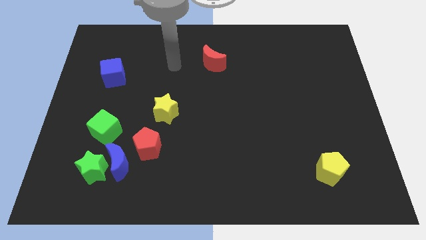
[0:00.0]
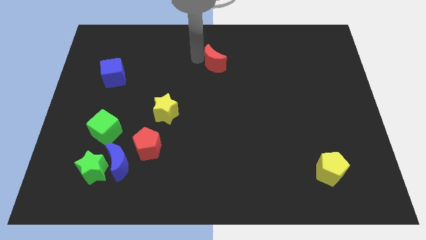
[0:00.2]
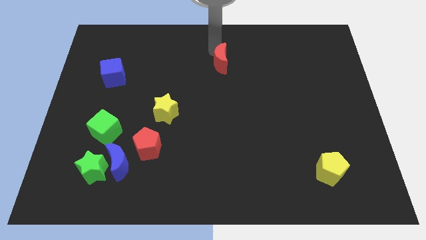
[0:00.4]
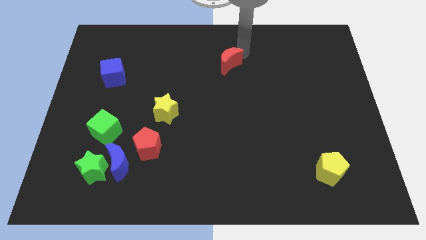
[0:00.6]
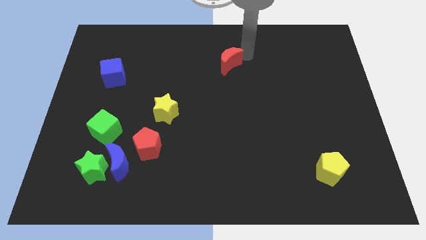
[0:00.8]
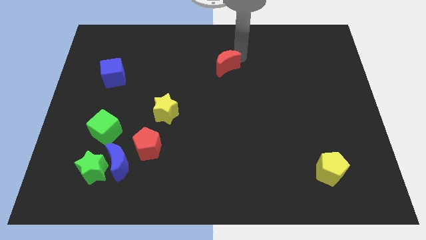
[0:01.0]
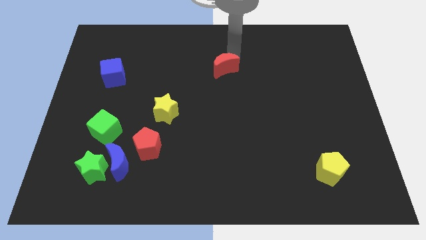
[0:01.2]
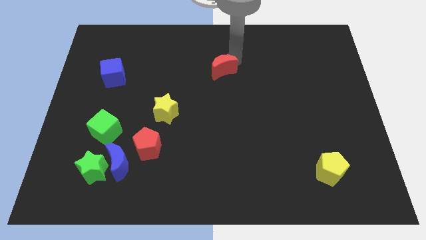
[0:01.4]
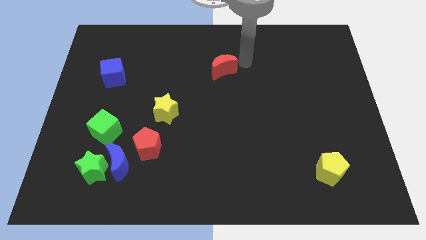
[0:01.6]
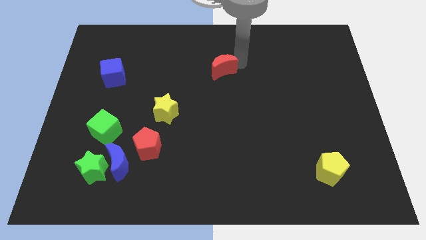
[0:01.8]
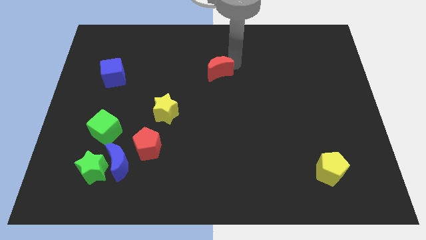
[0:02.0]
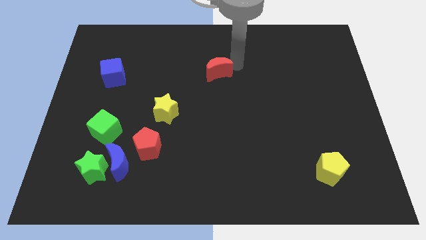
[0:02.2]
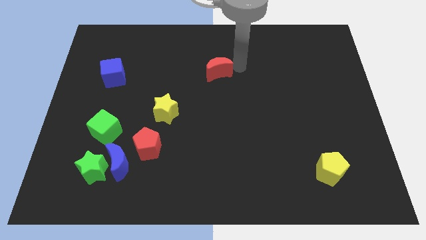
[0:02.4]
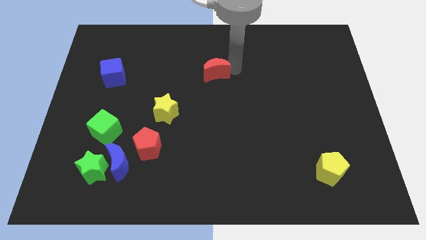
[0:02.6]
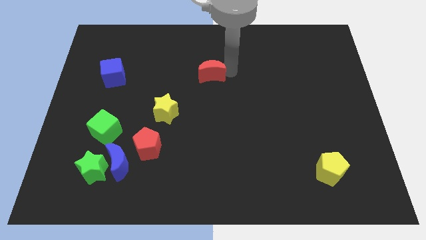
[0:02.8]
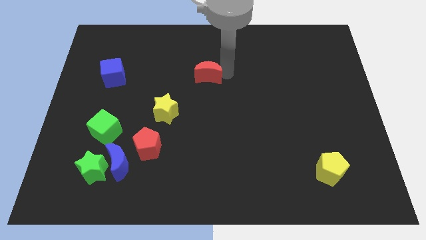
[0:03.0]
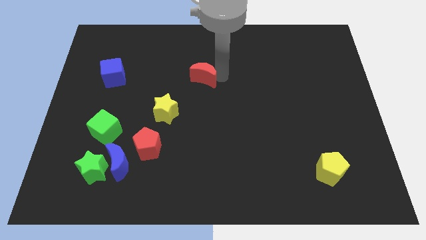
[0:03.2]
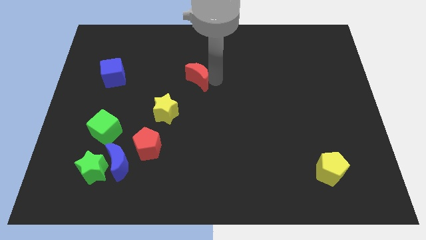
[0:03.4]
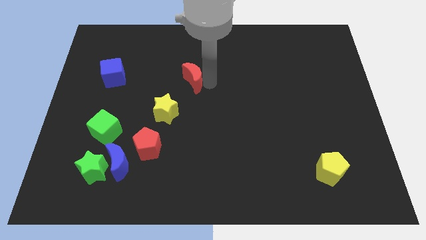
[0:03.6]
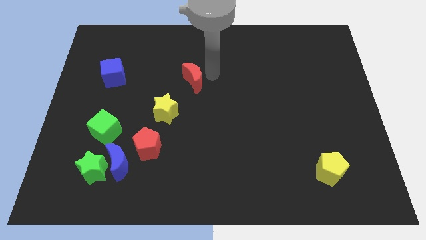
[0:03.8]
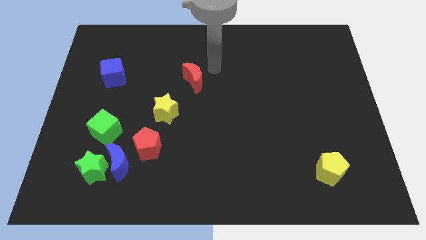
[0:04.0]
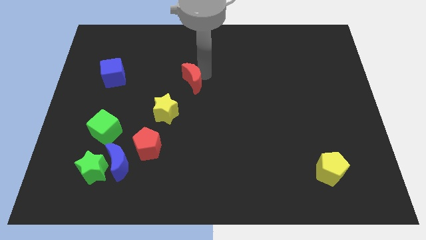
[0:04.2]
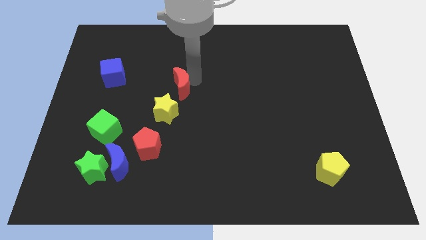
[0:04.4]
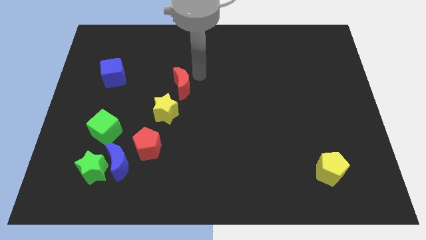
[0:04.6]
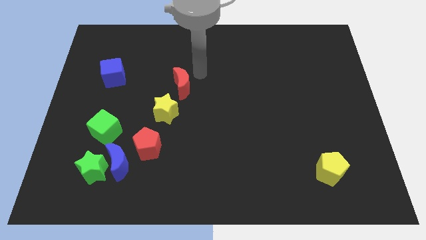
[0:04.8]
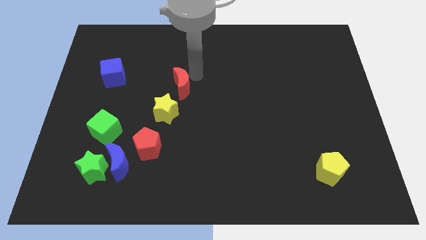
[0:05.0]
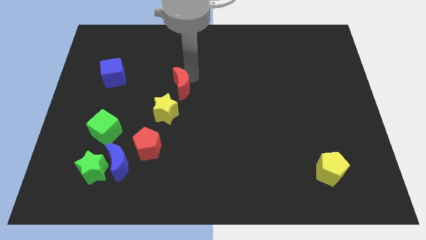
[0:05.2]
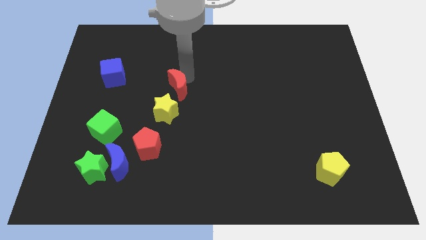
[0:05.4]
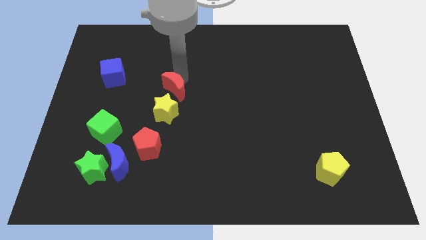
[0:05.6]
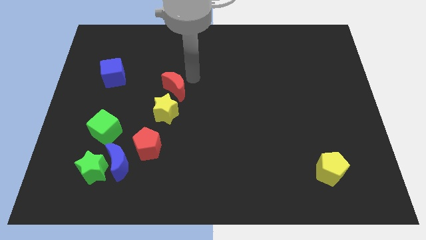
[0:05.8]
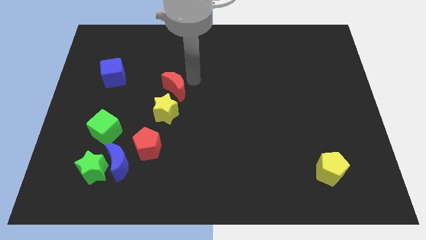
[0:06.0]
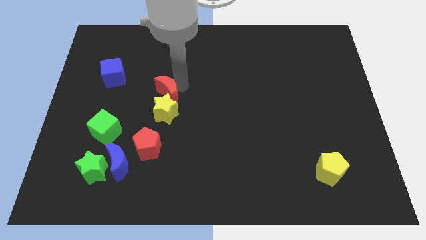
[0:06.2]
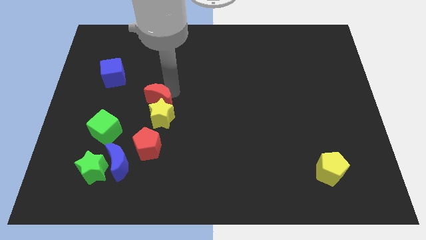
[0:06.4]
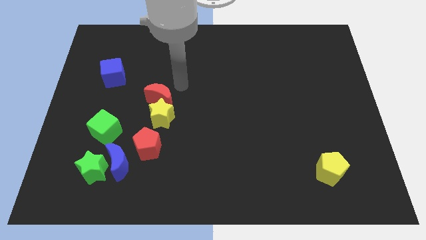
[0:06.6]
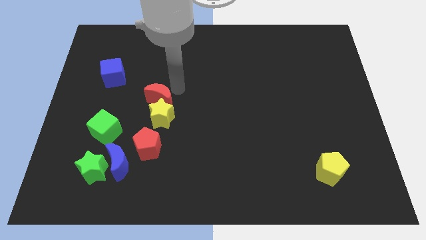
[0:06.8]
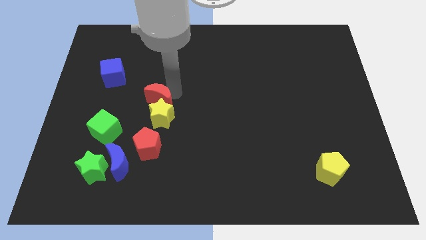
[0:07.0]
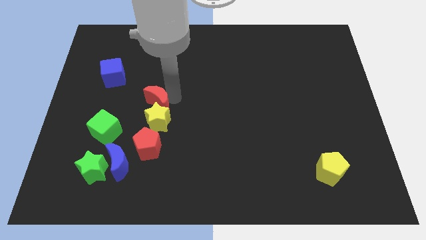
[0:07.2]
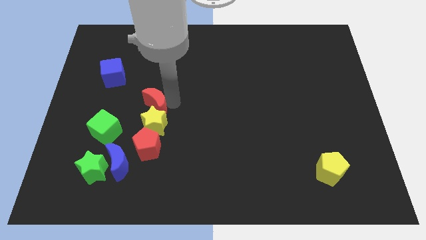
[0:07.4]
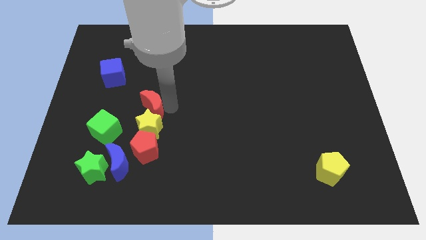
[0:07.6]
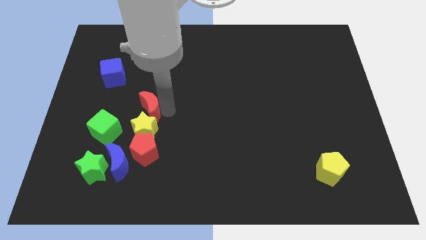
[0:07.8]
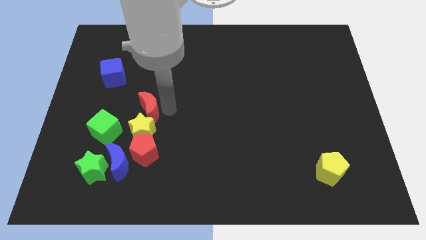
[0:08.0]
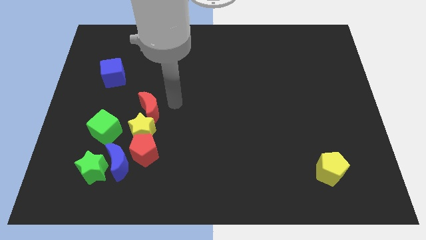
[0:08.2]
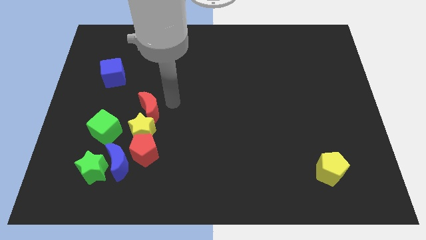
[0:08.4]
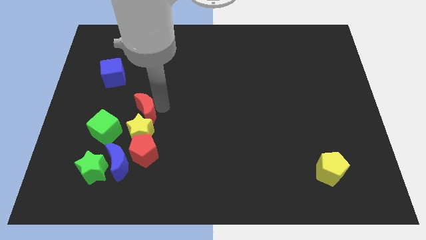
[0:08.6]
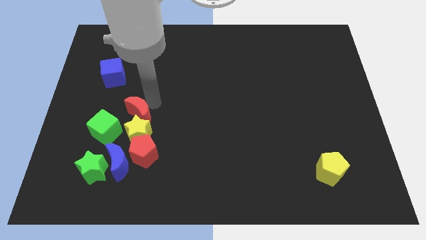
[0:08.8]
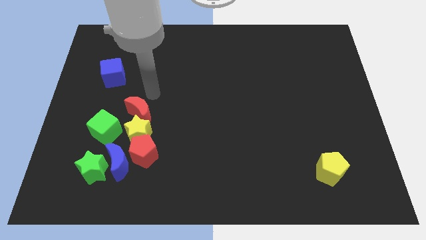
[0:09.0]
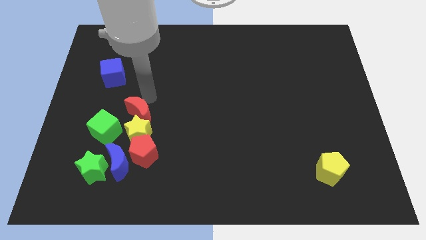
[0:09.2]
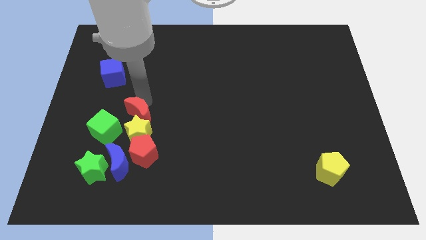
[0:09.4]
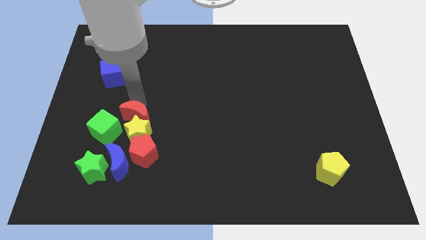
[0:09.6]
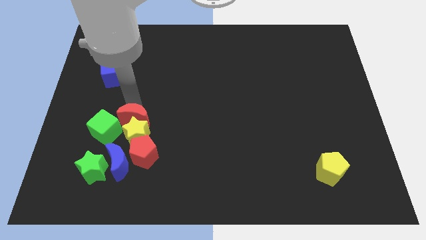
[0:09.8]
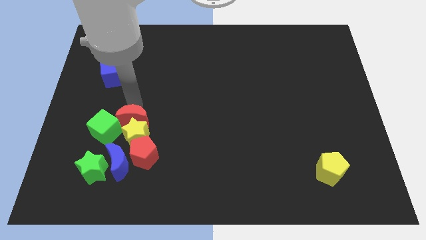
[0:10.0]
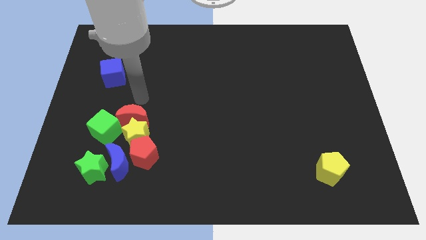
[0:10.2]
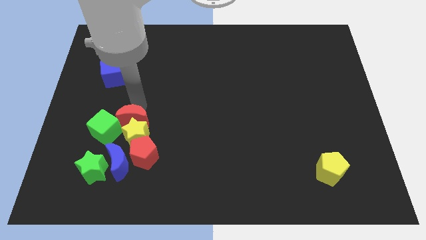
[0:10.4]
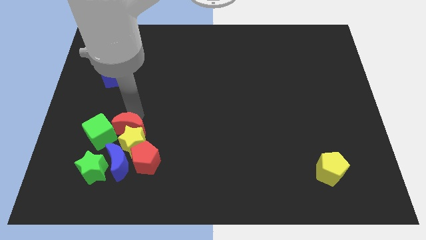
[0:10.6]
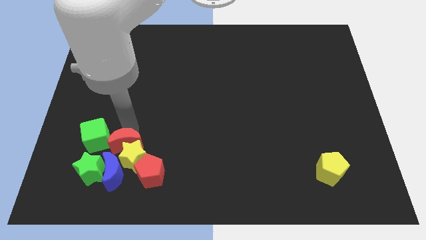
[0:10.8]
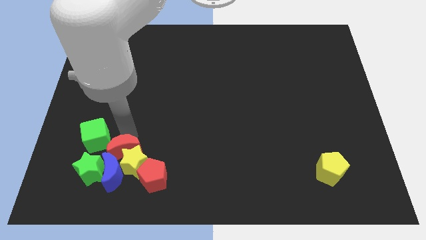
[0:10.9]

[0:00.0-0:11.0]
push the red moon to the blue moon

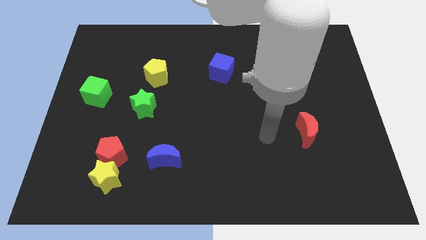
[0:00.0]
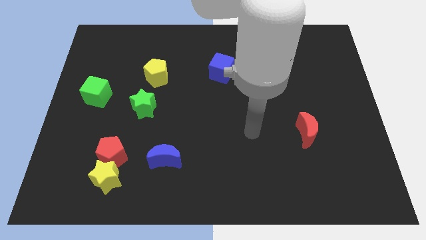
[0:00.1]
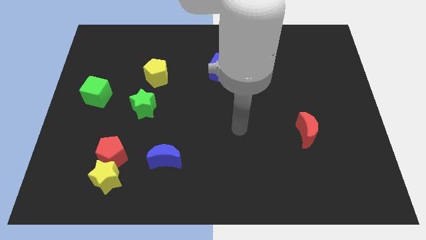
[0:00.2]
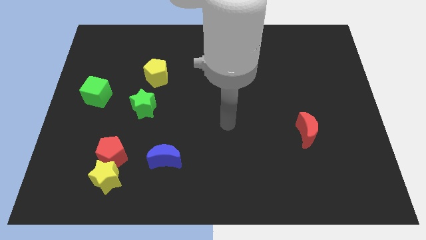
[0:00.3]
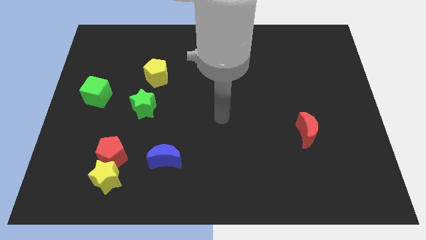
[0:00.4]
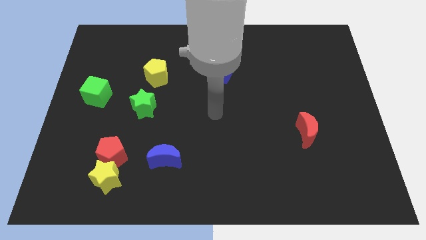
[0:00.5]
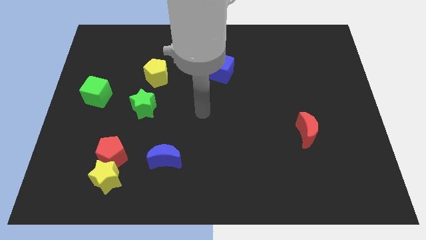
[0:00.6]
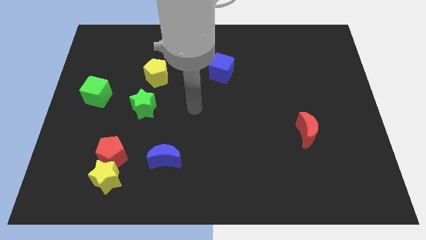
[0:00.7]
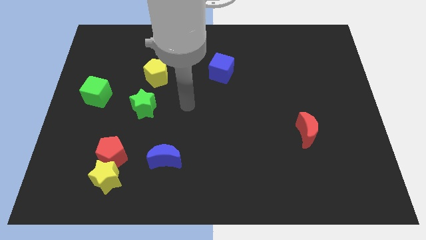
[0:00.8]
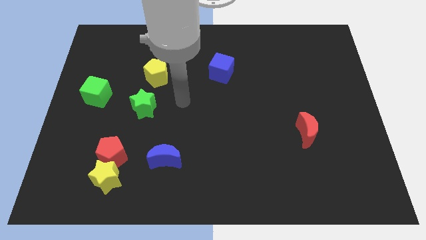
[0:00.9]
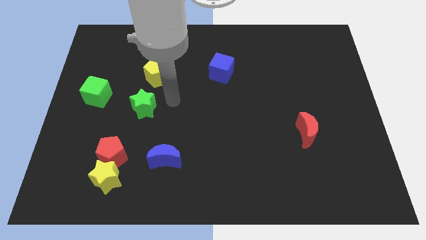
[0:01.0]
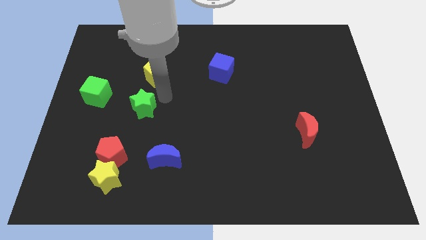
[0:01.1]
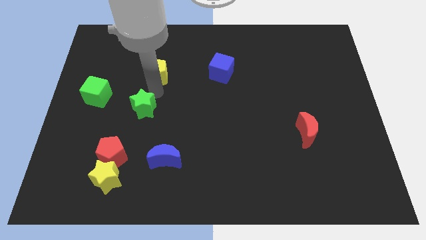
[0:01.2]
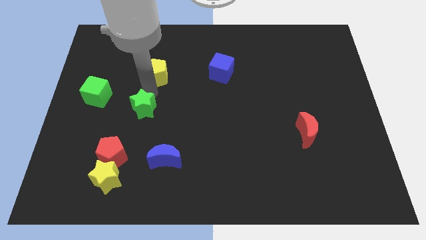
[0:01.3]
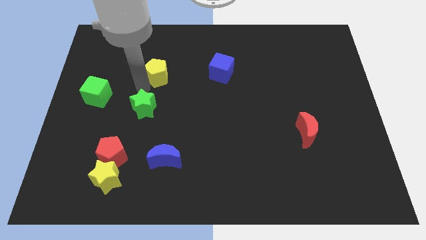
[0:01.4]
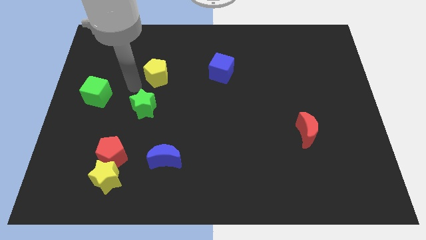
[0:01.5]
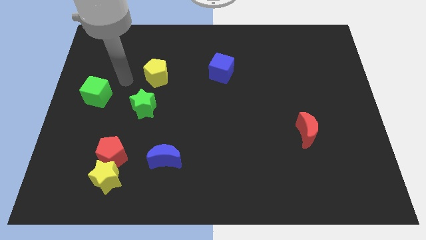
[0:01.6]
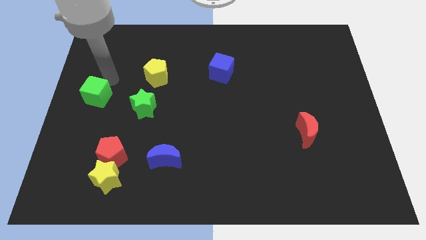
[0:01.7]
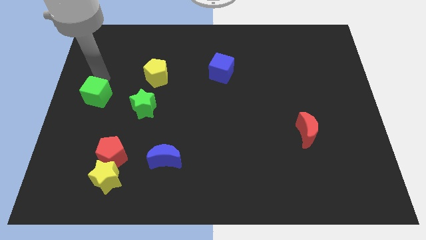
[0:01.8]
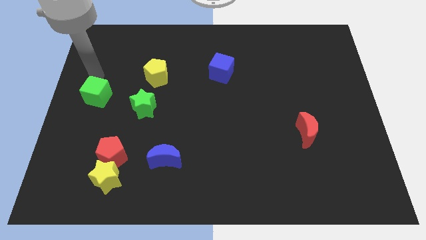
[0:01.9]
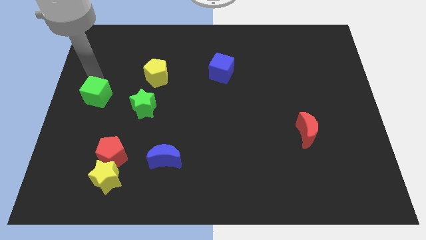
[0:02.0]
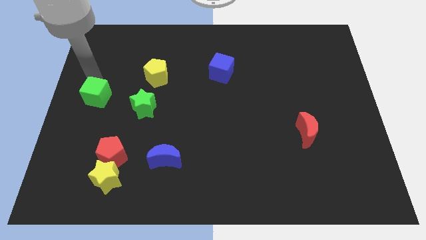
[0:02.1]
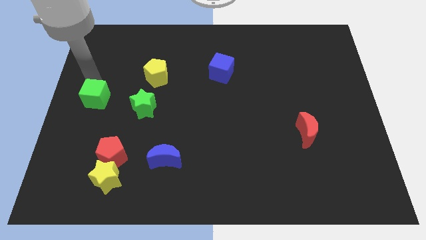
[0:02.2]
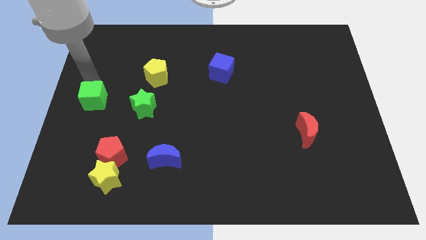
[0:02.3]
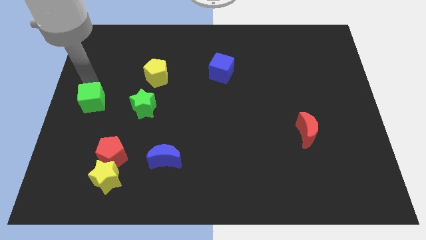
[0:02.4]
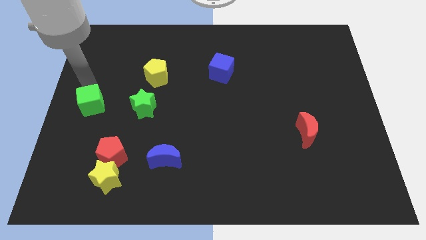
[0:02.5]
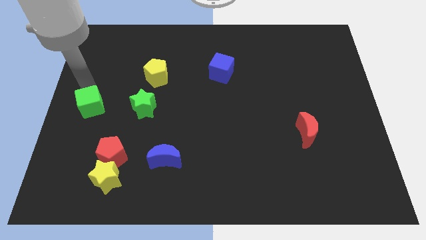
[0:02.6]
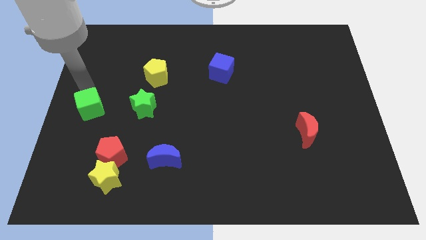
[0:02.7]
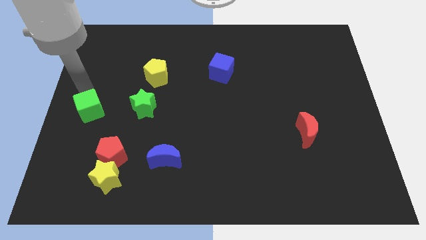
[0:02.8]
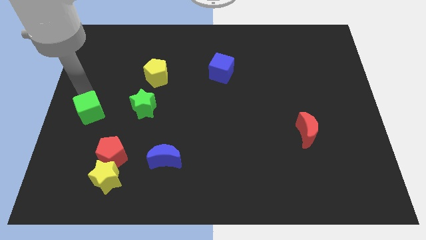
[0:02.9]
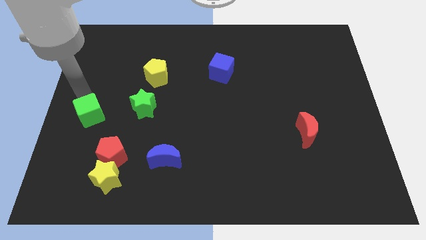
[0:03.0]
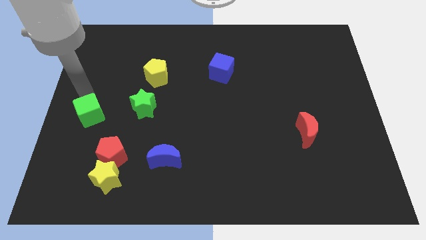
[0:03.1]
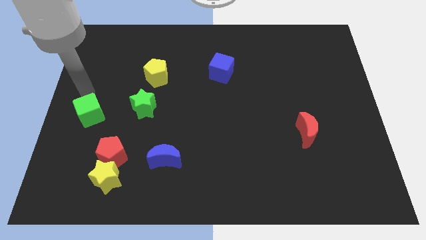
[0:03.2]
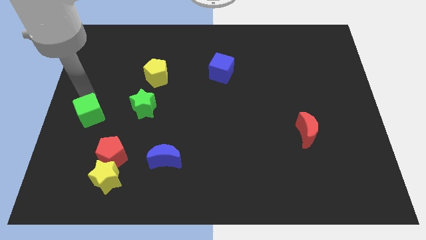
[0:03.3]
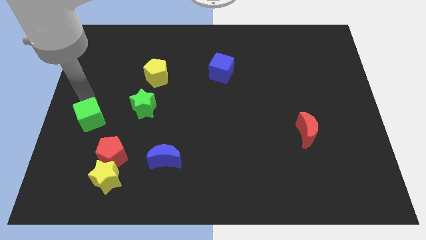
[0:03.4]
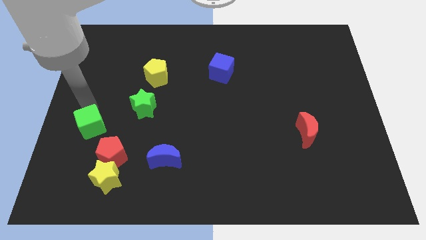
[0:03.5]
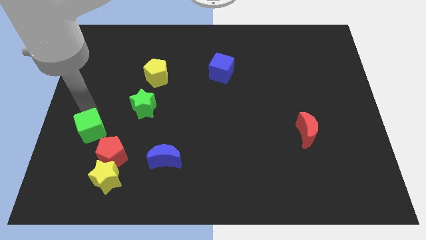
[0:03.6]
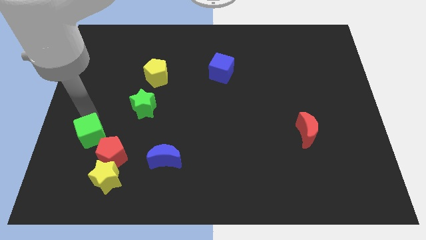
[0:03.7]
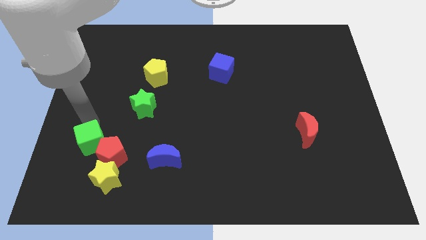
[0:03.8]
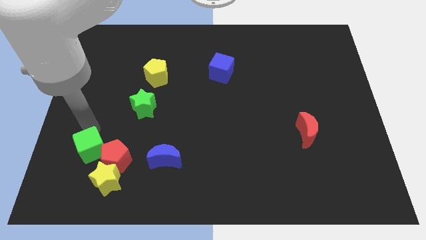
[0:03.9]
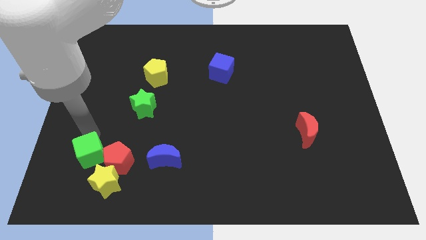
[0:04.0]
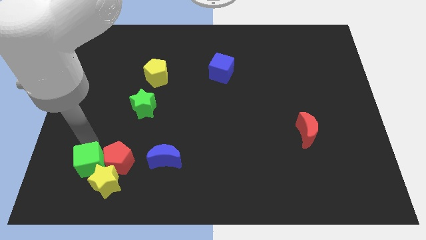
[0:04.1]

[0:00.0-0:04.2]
push the green cube close to the yellow star
